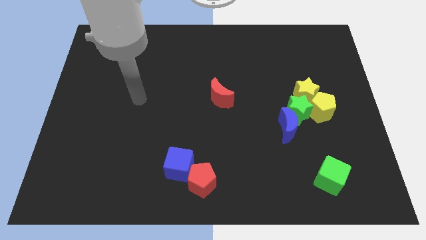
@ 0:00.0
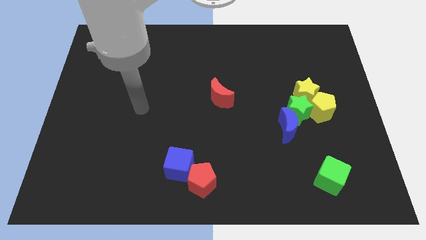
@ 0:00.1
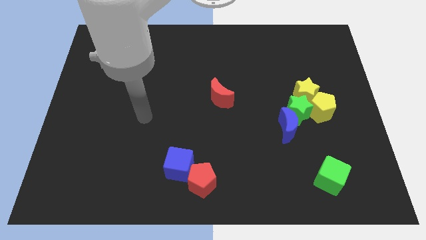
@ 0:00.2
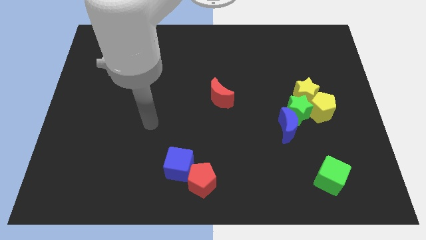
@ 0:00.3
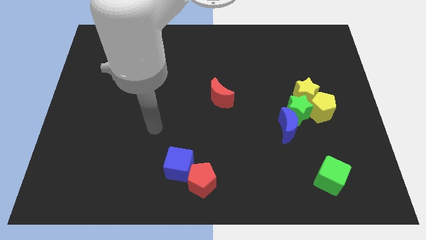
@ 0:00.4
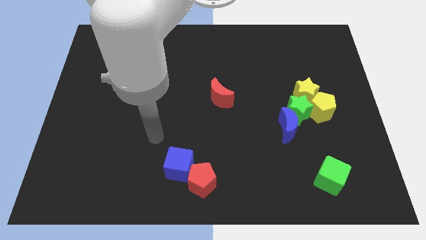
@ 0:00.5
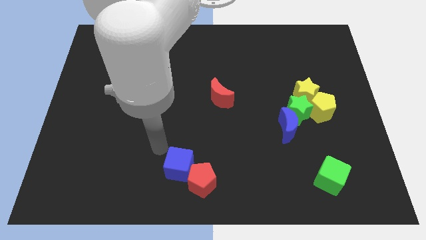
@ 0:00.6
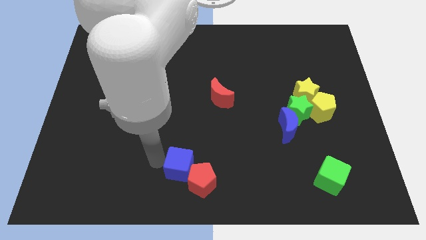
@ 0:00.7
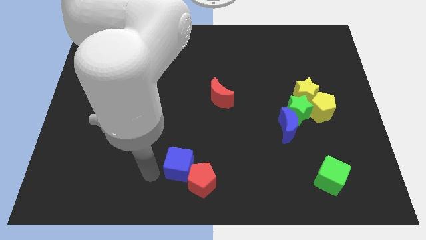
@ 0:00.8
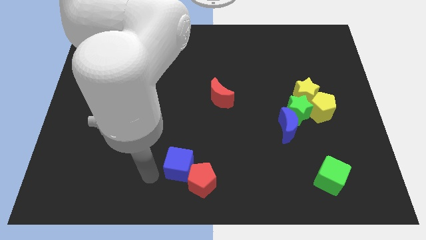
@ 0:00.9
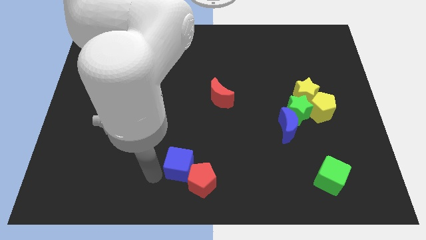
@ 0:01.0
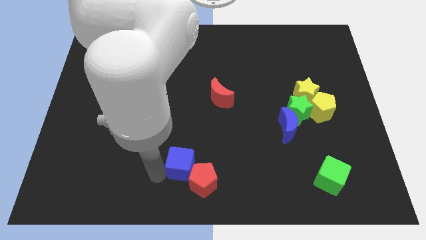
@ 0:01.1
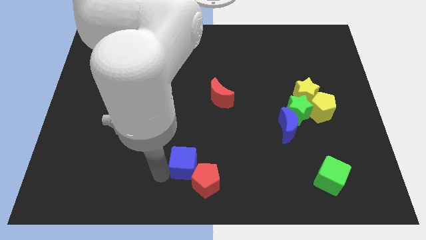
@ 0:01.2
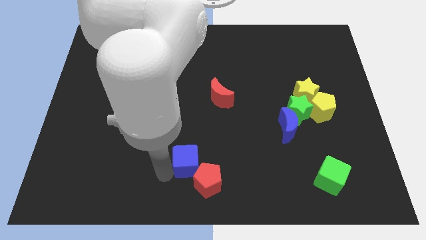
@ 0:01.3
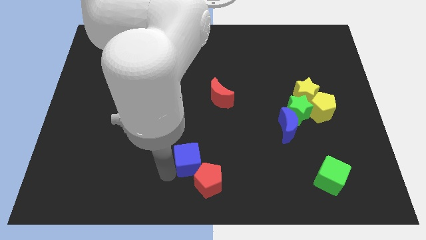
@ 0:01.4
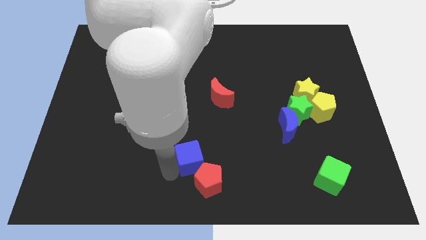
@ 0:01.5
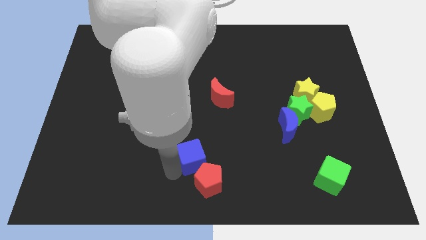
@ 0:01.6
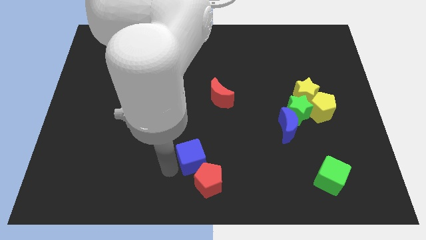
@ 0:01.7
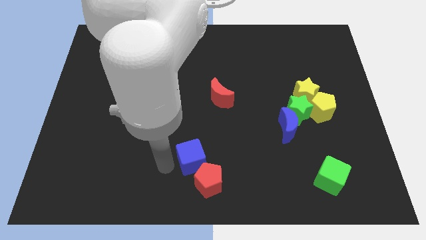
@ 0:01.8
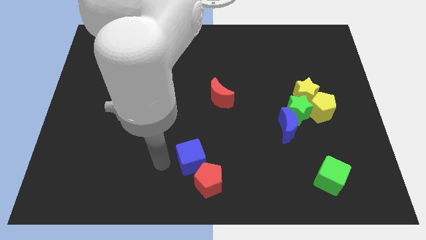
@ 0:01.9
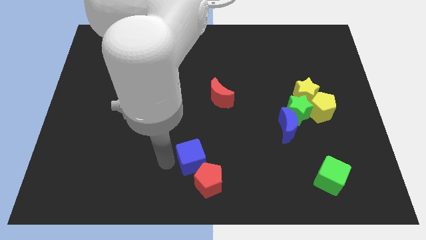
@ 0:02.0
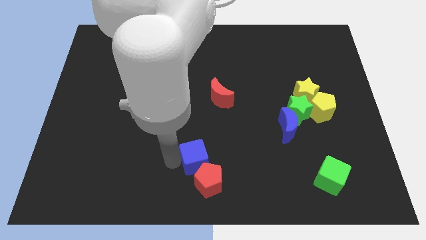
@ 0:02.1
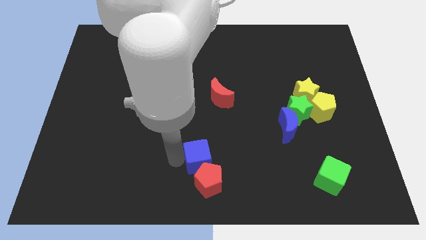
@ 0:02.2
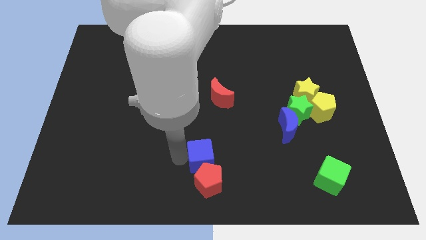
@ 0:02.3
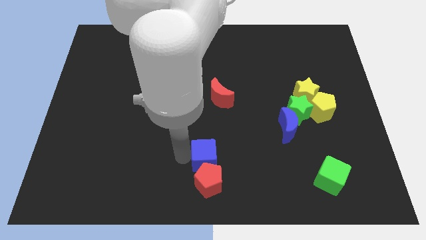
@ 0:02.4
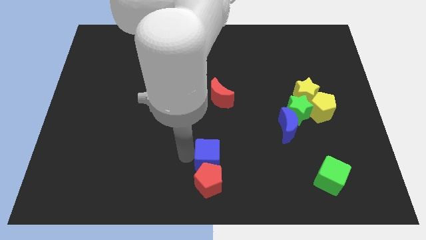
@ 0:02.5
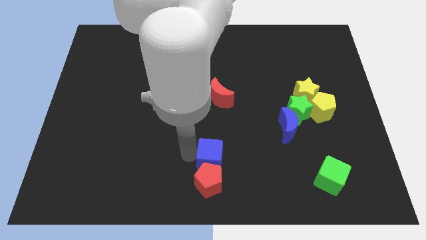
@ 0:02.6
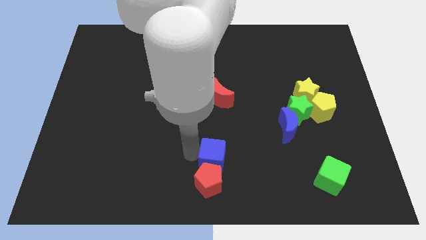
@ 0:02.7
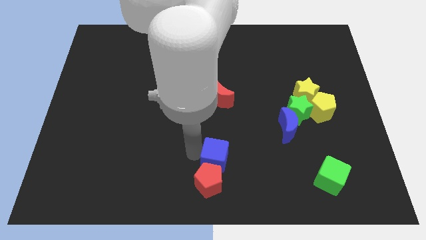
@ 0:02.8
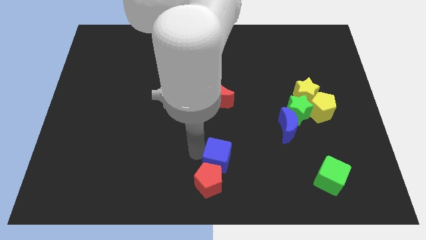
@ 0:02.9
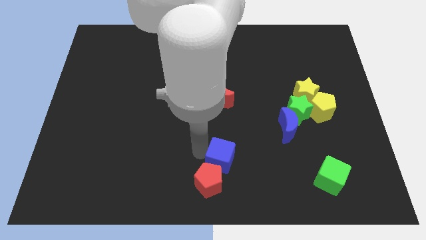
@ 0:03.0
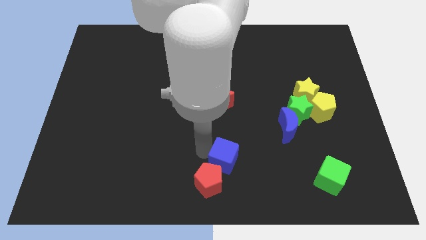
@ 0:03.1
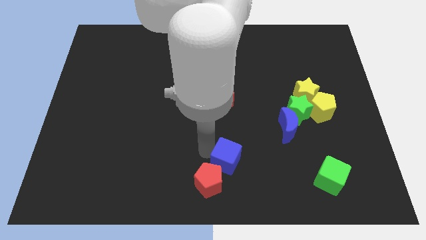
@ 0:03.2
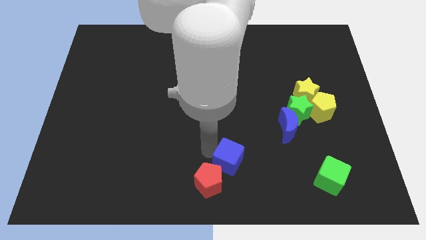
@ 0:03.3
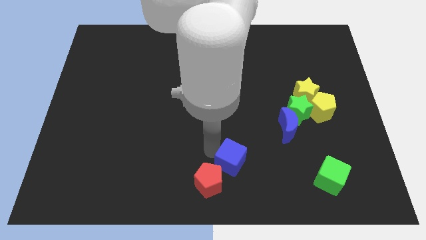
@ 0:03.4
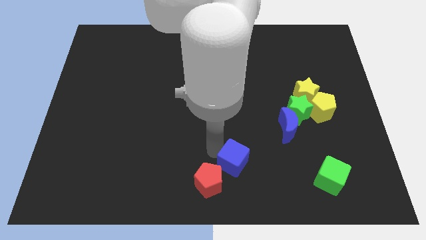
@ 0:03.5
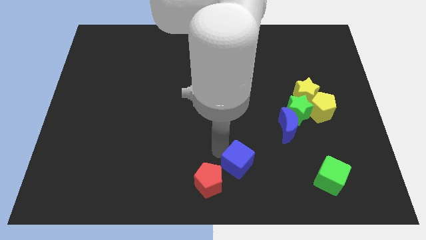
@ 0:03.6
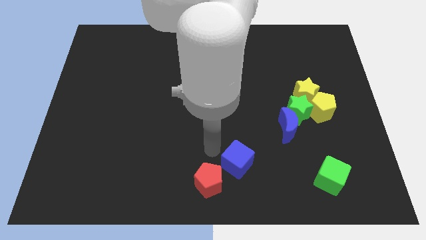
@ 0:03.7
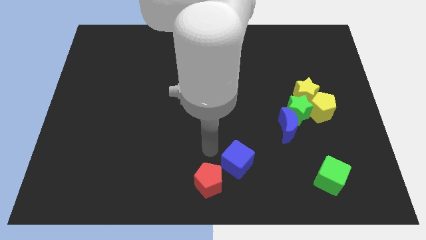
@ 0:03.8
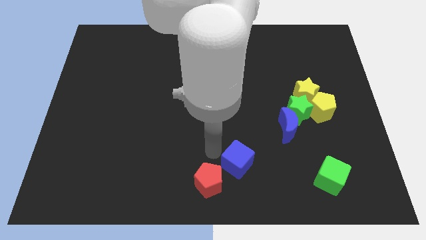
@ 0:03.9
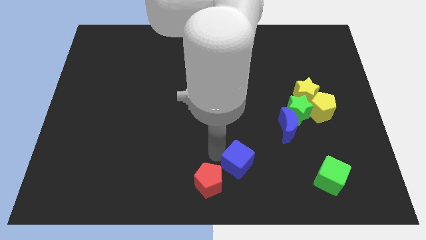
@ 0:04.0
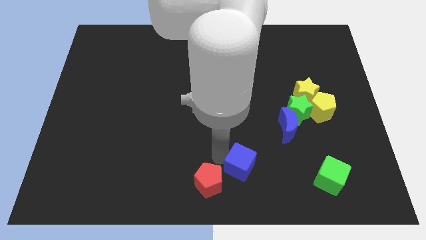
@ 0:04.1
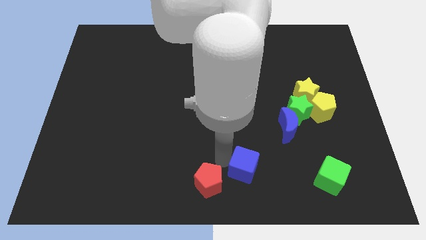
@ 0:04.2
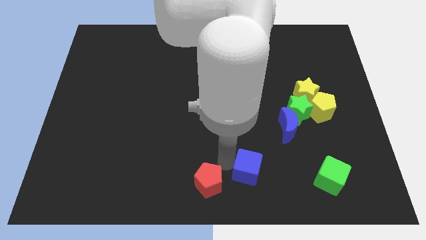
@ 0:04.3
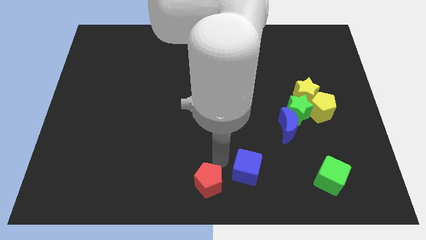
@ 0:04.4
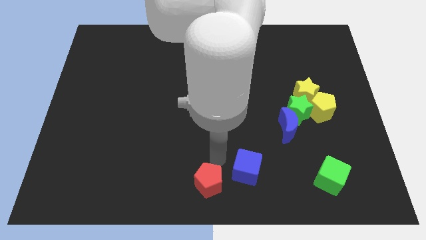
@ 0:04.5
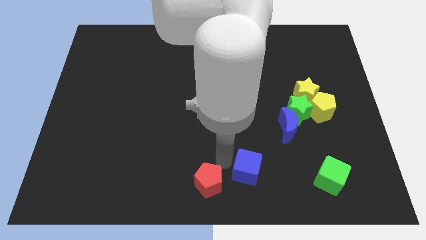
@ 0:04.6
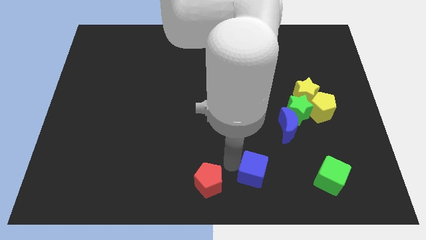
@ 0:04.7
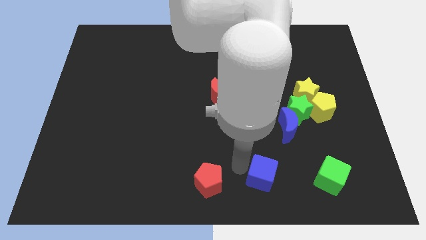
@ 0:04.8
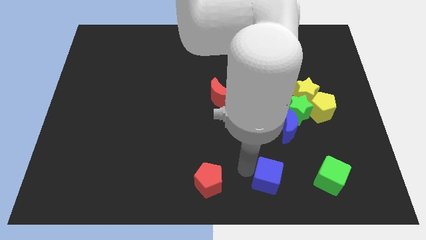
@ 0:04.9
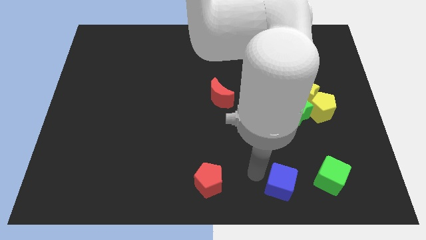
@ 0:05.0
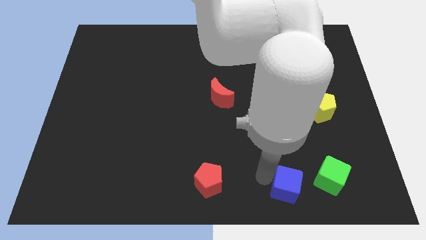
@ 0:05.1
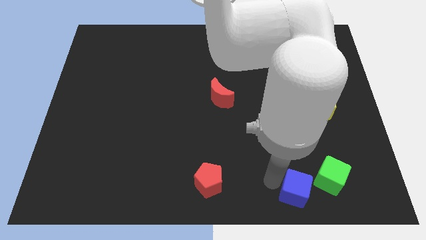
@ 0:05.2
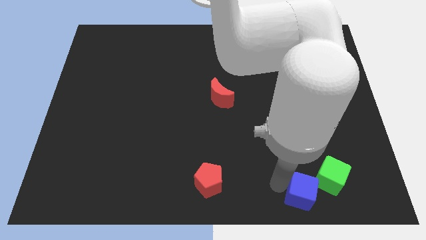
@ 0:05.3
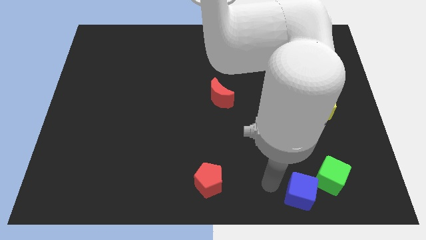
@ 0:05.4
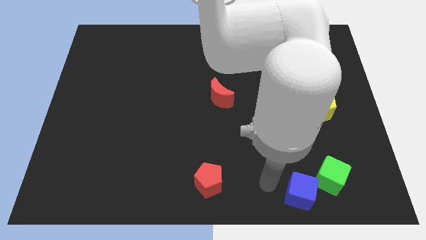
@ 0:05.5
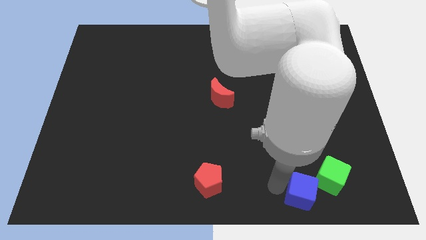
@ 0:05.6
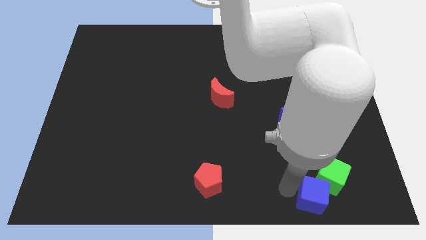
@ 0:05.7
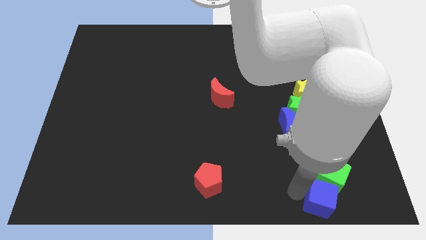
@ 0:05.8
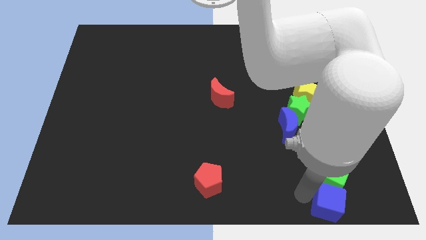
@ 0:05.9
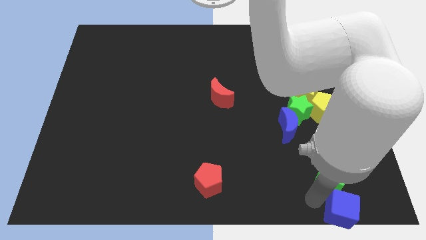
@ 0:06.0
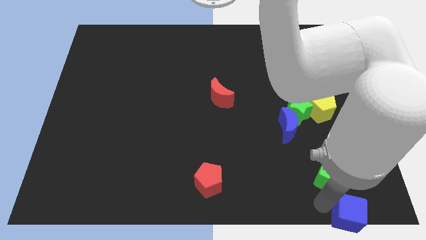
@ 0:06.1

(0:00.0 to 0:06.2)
slide the blue cube to the bottom right of the board

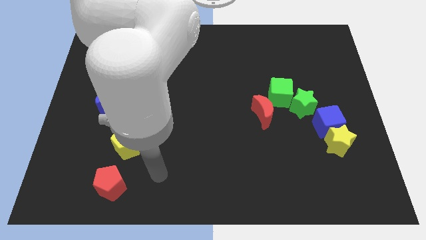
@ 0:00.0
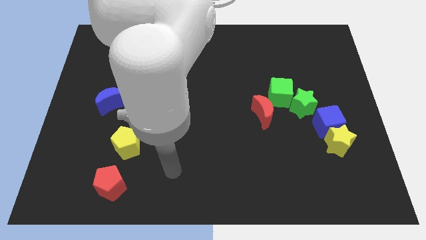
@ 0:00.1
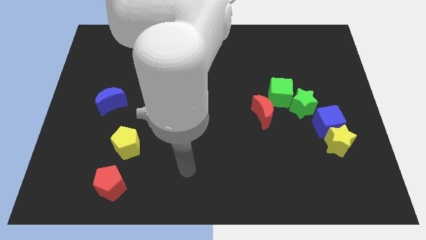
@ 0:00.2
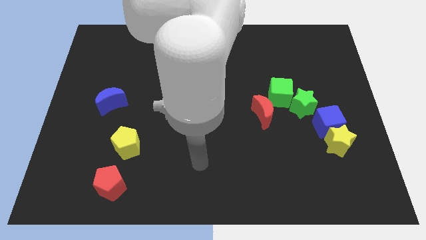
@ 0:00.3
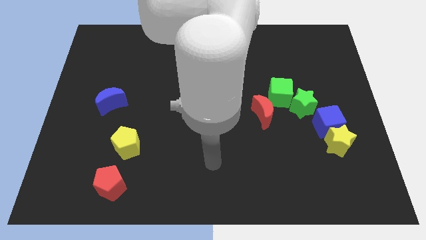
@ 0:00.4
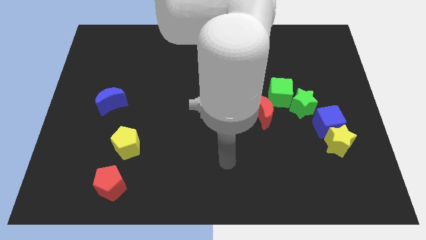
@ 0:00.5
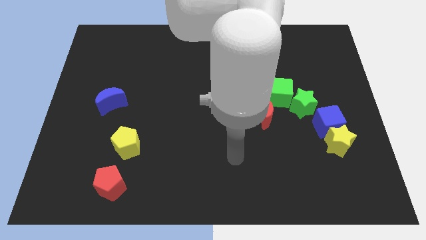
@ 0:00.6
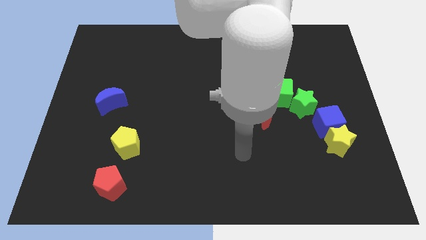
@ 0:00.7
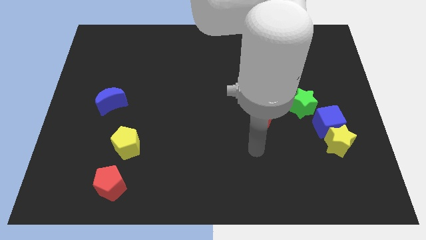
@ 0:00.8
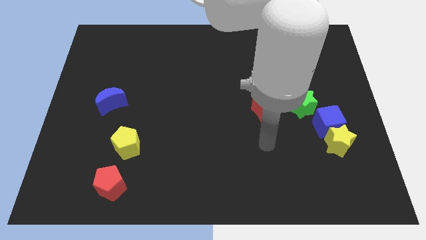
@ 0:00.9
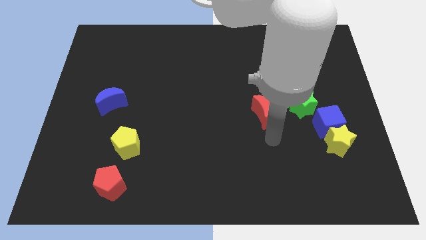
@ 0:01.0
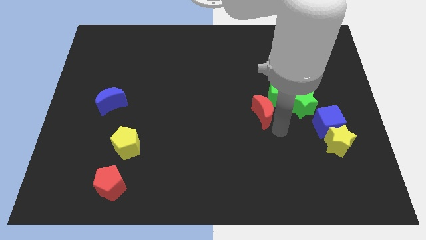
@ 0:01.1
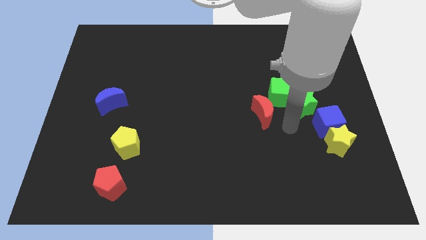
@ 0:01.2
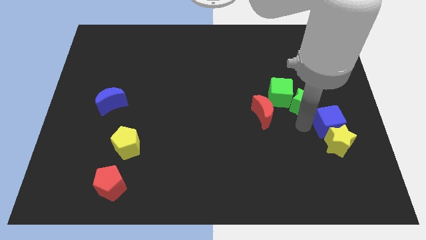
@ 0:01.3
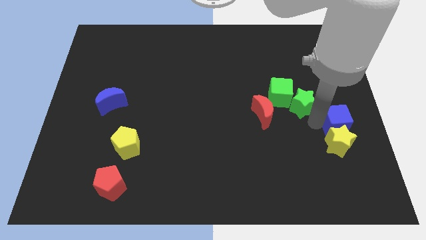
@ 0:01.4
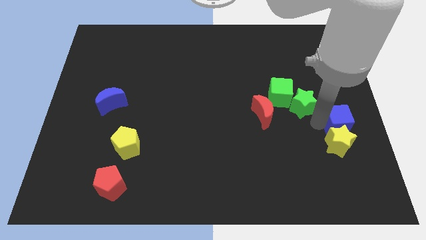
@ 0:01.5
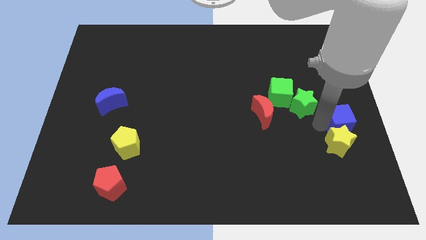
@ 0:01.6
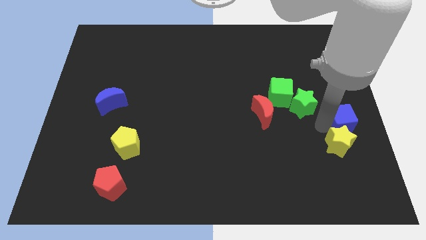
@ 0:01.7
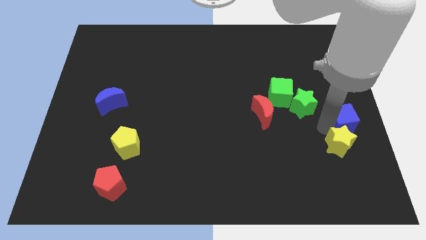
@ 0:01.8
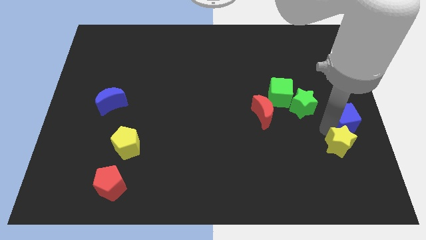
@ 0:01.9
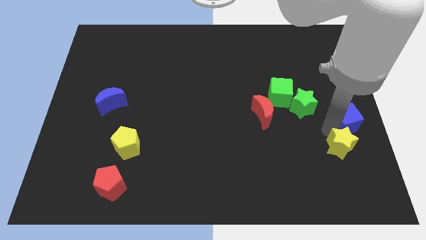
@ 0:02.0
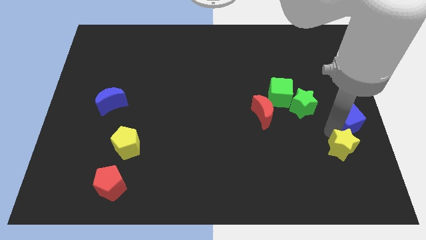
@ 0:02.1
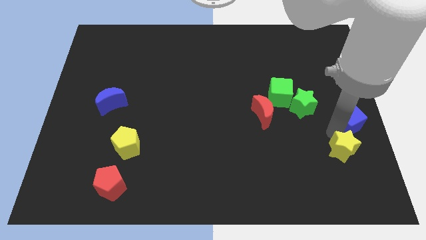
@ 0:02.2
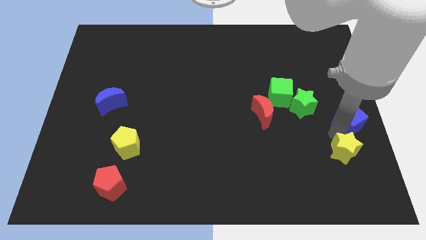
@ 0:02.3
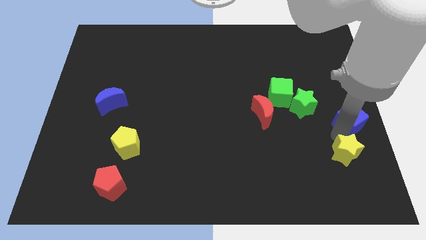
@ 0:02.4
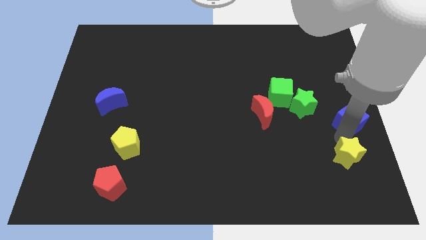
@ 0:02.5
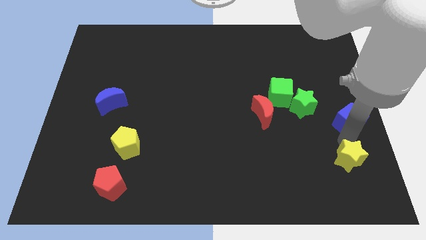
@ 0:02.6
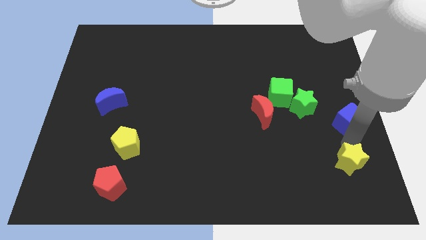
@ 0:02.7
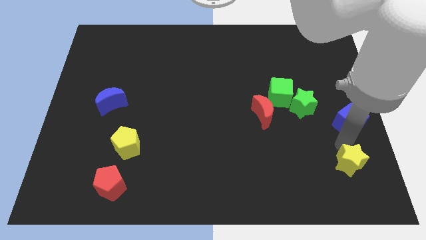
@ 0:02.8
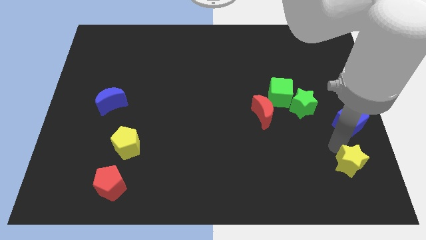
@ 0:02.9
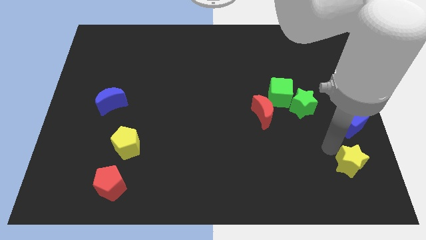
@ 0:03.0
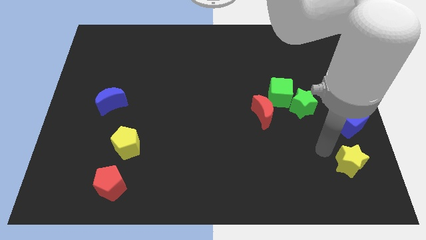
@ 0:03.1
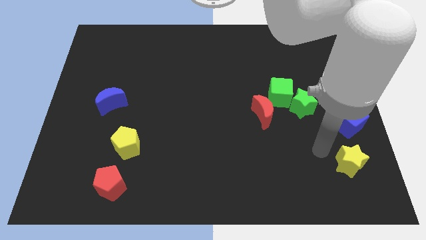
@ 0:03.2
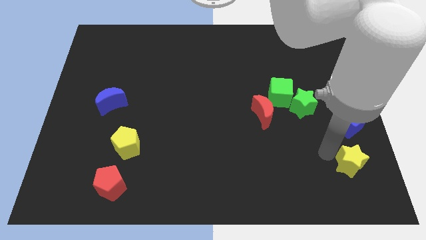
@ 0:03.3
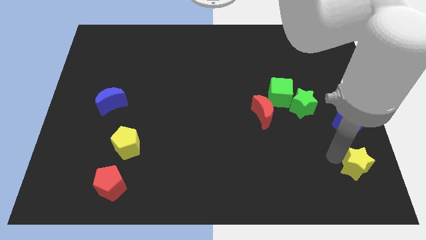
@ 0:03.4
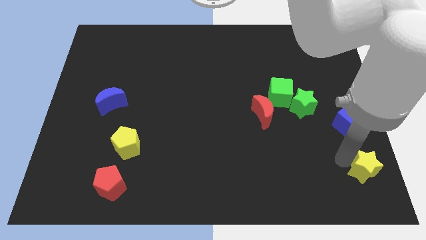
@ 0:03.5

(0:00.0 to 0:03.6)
slide the yellow star to the lower right corner
